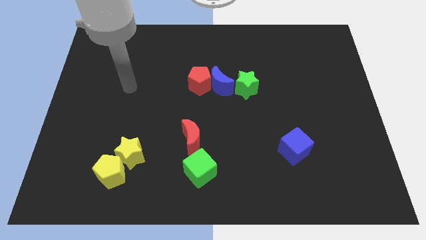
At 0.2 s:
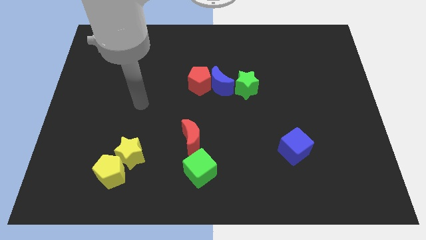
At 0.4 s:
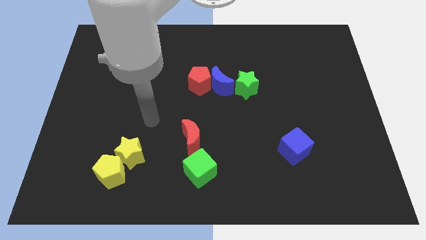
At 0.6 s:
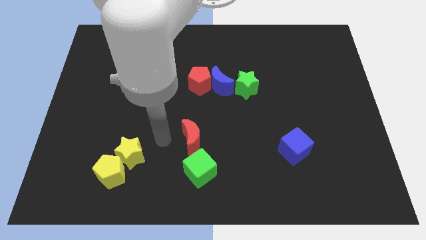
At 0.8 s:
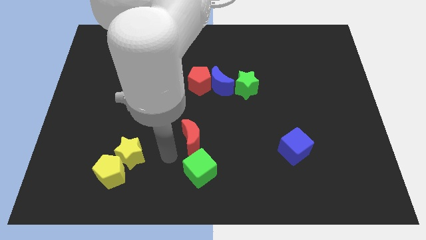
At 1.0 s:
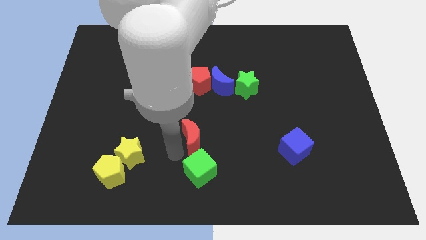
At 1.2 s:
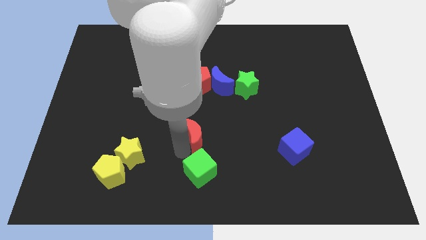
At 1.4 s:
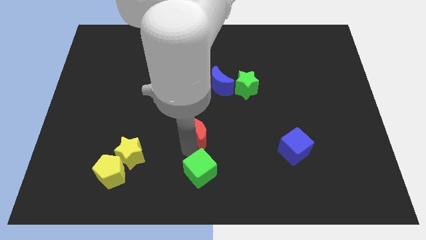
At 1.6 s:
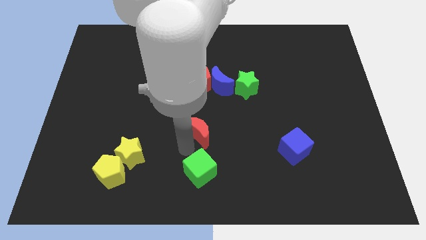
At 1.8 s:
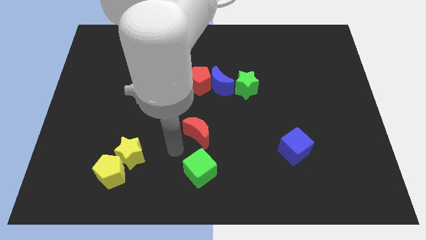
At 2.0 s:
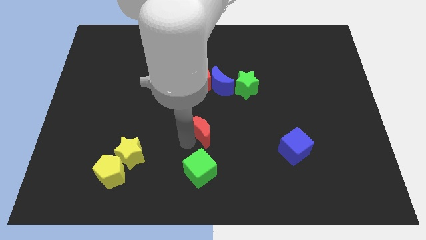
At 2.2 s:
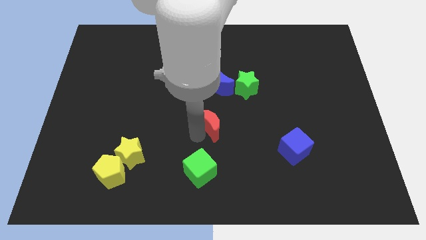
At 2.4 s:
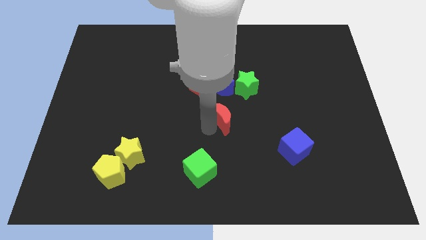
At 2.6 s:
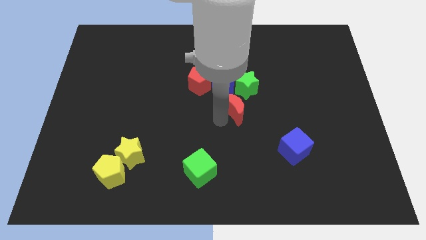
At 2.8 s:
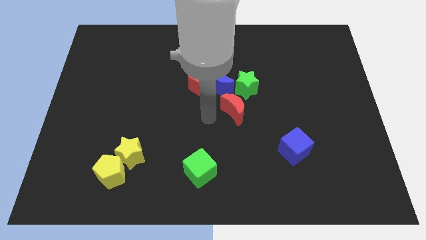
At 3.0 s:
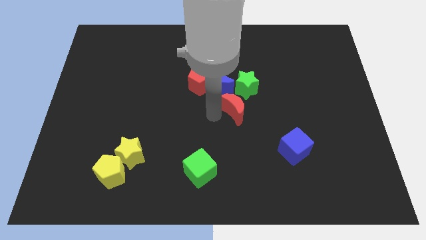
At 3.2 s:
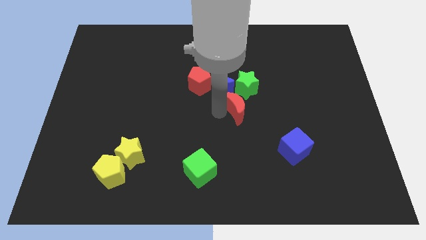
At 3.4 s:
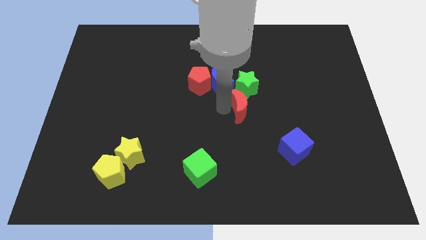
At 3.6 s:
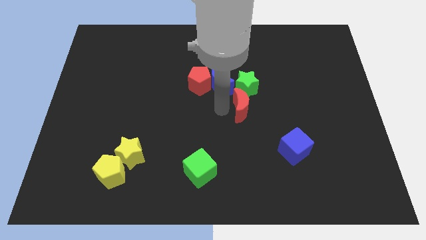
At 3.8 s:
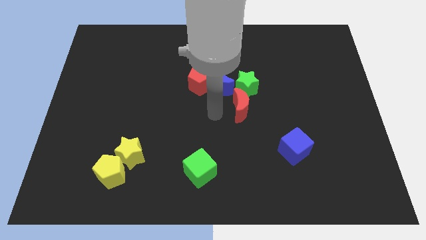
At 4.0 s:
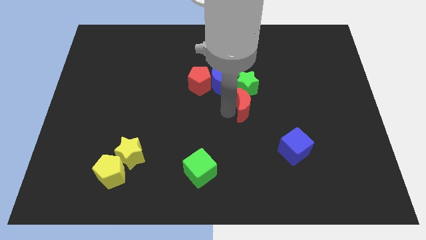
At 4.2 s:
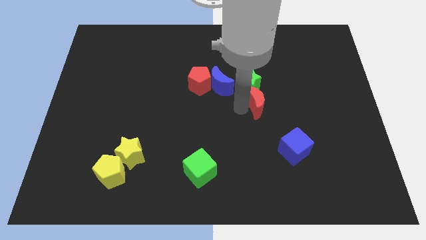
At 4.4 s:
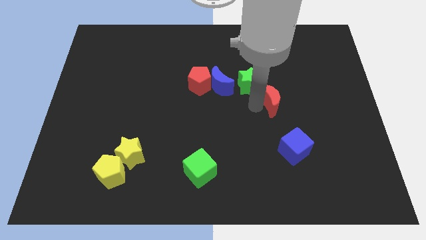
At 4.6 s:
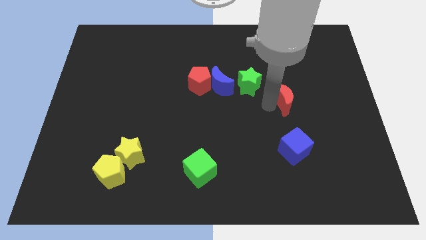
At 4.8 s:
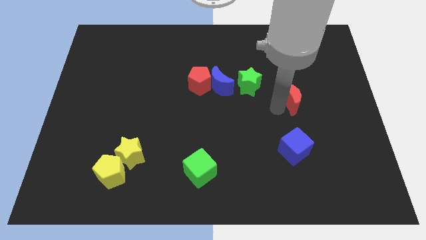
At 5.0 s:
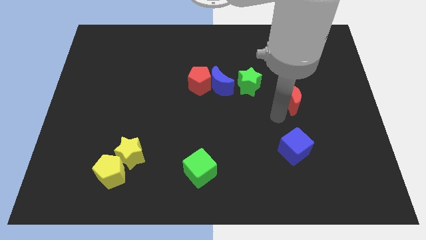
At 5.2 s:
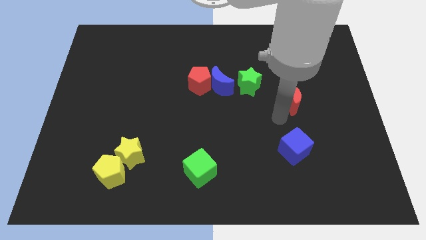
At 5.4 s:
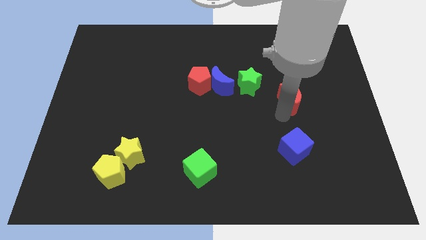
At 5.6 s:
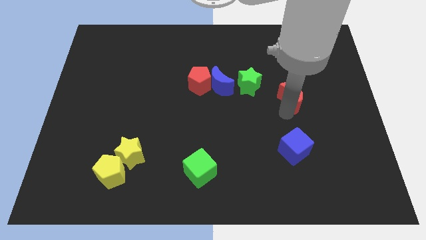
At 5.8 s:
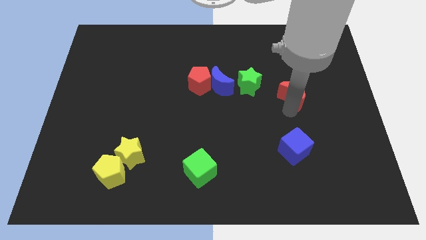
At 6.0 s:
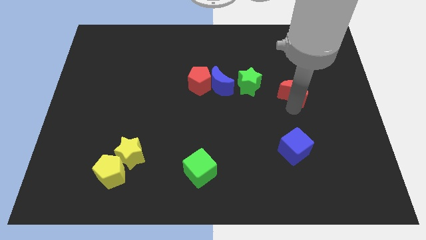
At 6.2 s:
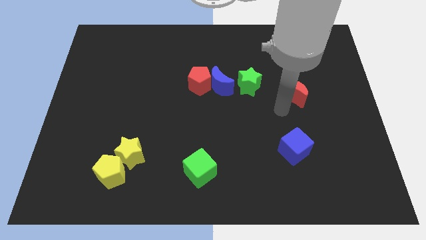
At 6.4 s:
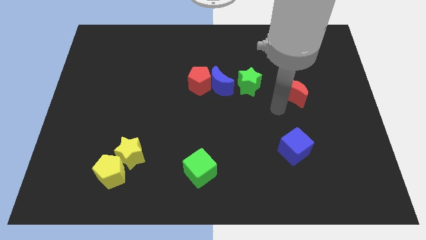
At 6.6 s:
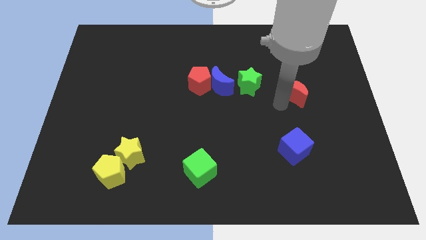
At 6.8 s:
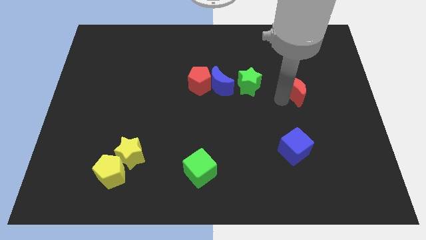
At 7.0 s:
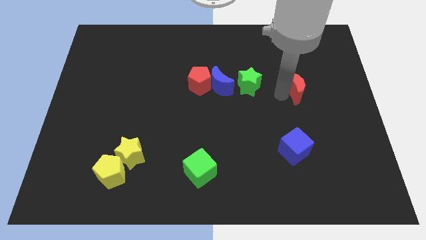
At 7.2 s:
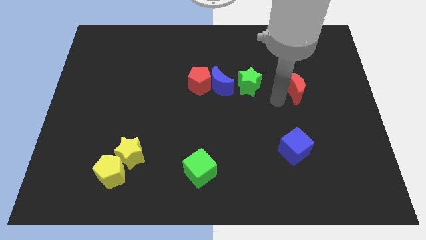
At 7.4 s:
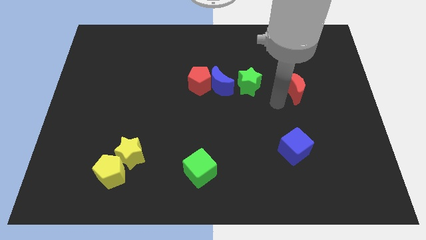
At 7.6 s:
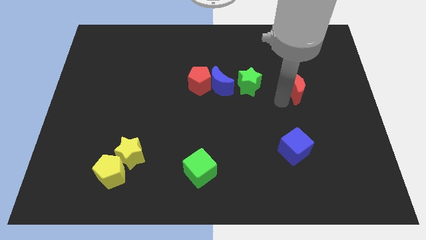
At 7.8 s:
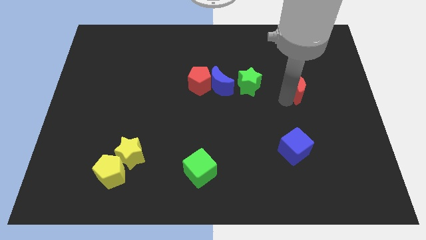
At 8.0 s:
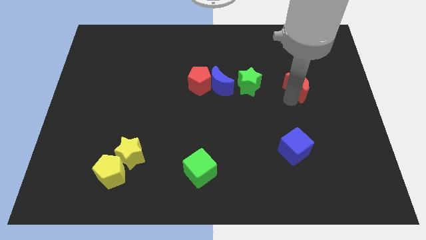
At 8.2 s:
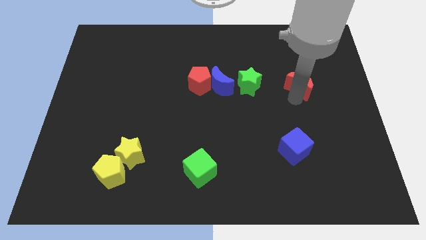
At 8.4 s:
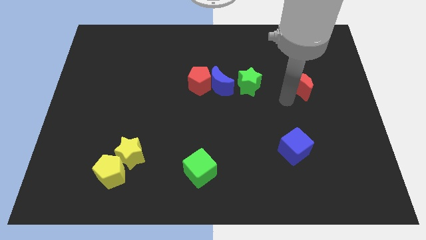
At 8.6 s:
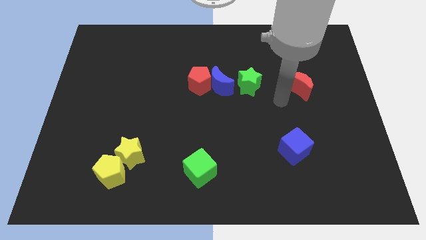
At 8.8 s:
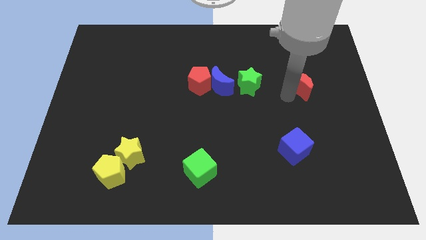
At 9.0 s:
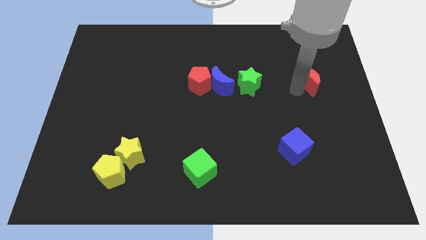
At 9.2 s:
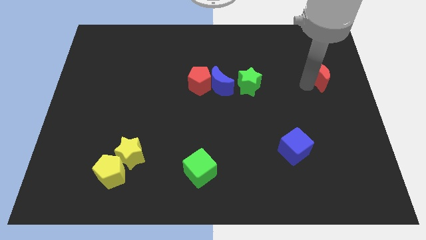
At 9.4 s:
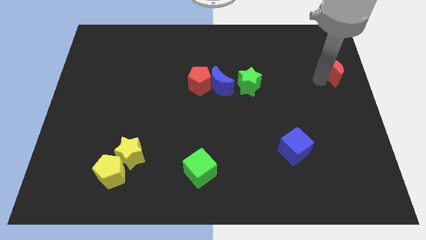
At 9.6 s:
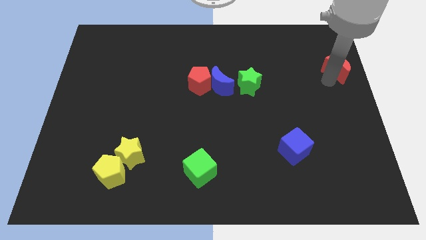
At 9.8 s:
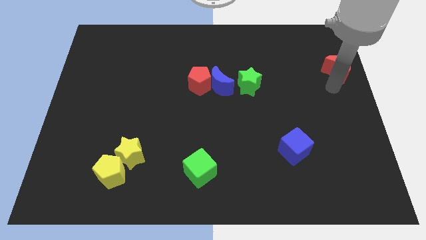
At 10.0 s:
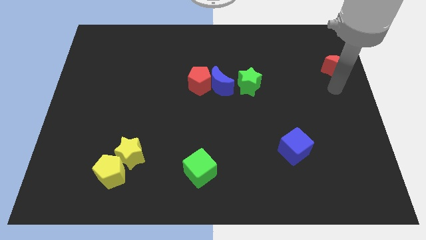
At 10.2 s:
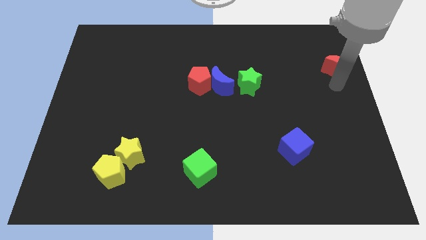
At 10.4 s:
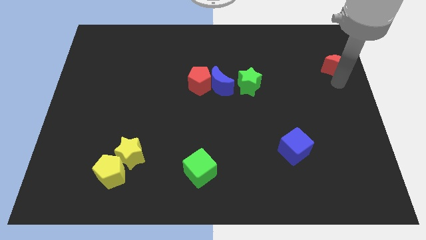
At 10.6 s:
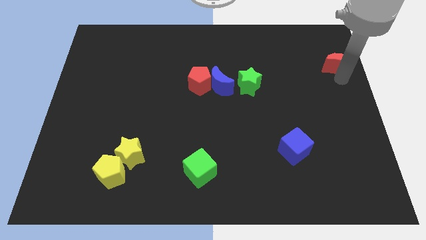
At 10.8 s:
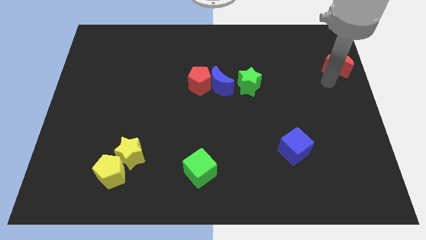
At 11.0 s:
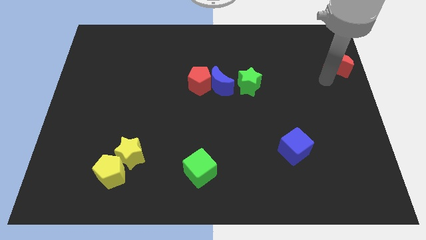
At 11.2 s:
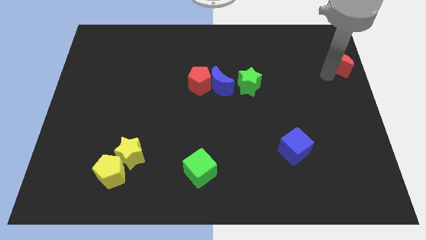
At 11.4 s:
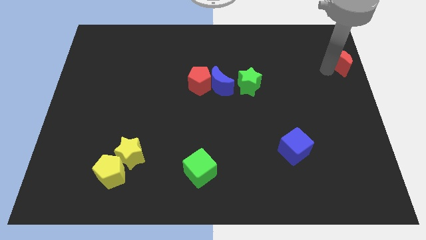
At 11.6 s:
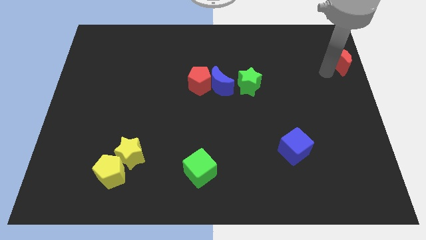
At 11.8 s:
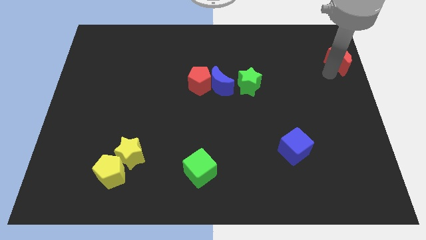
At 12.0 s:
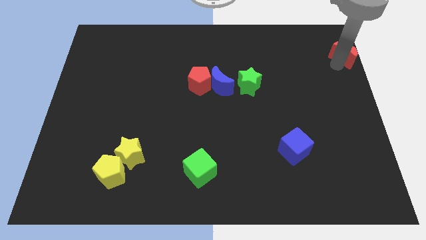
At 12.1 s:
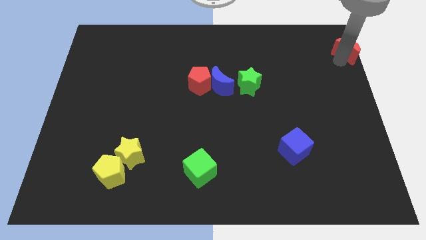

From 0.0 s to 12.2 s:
put the red moon to the top right
